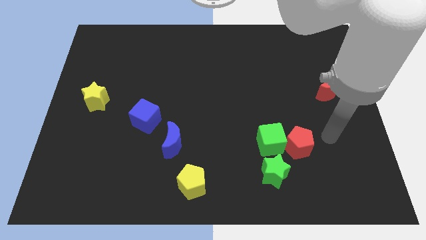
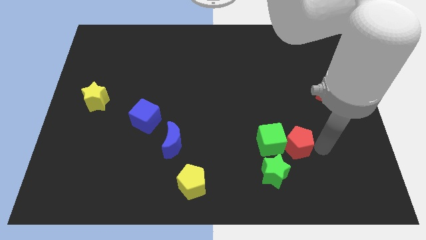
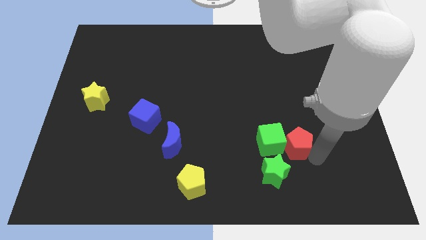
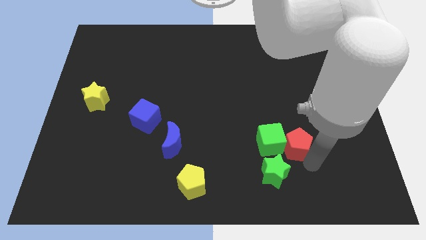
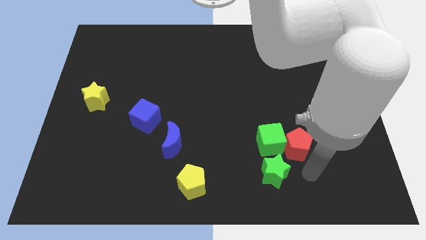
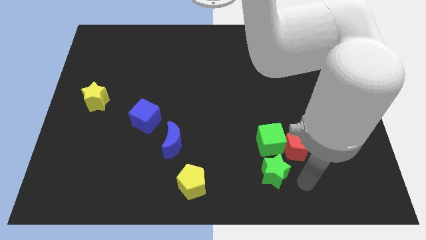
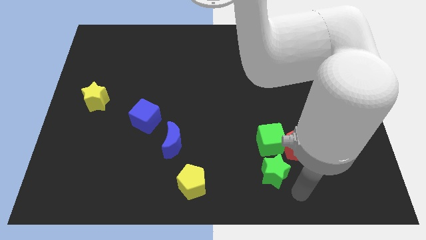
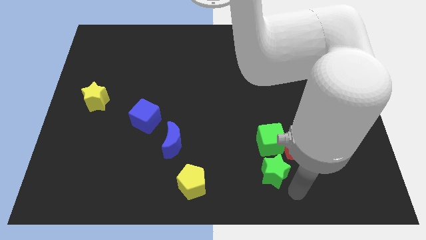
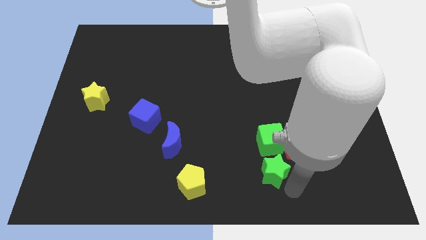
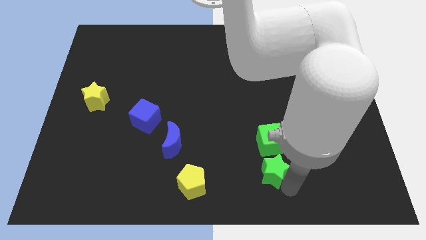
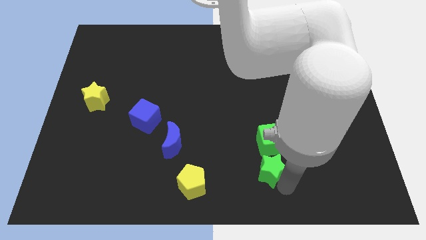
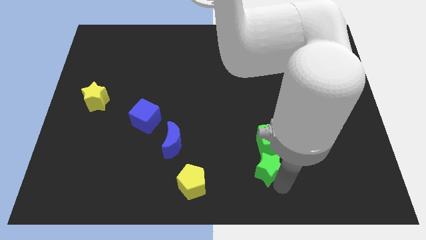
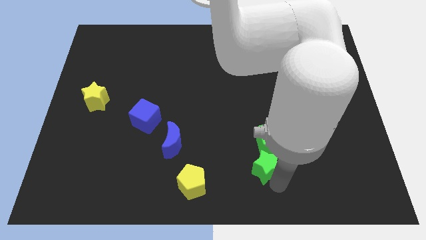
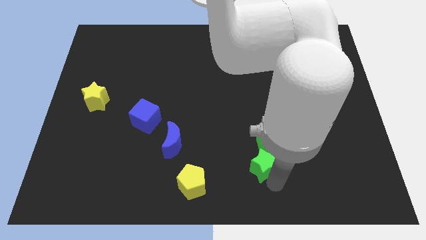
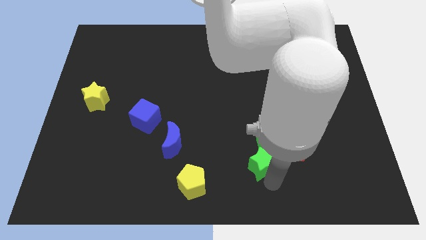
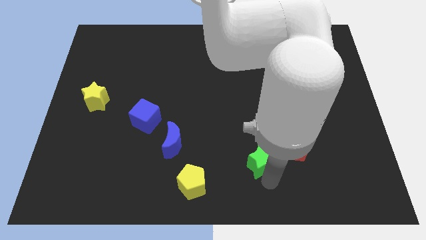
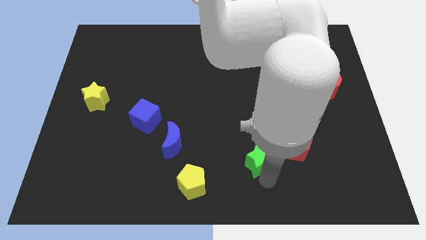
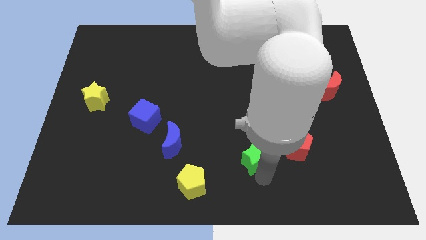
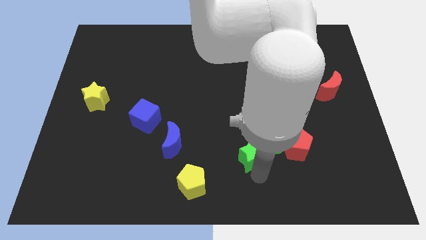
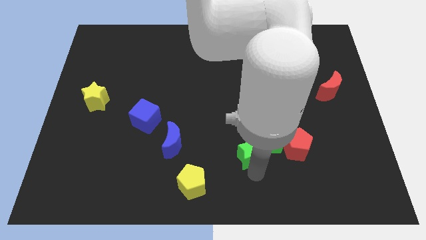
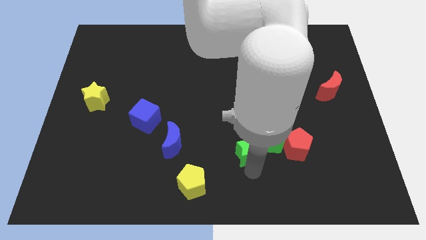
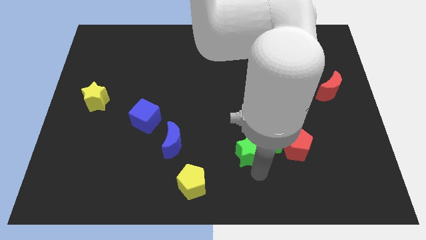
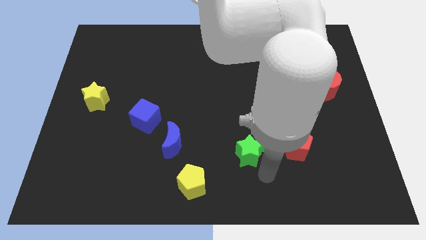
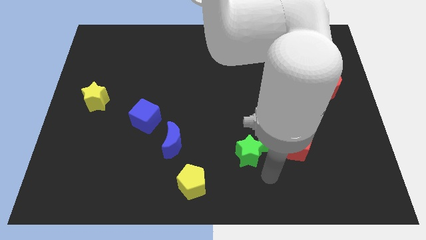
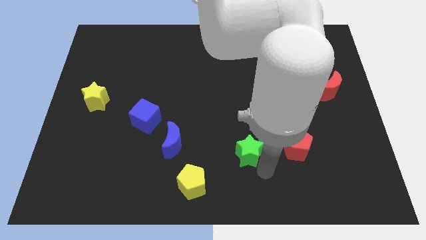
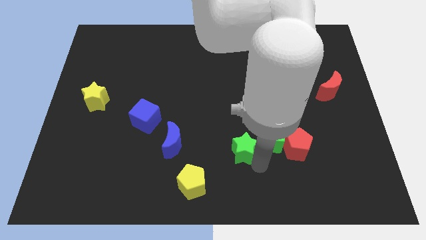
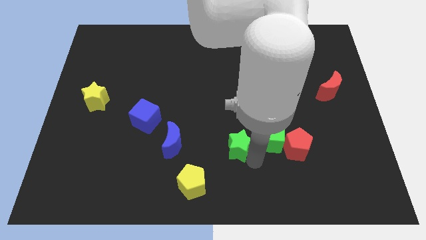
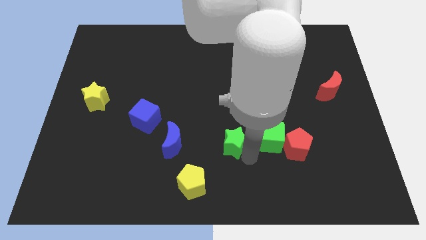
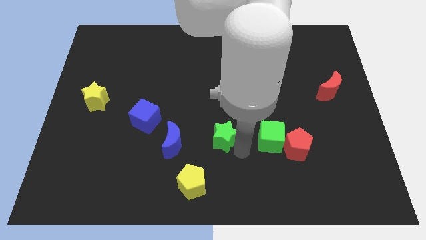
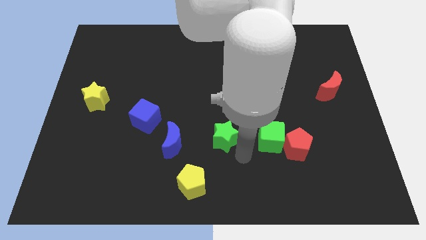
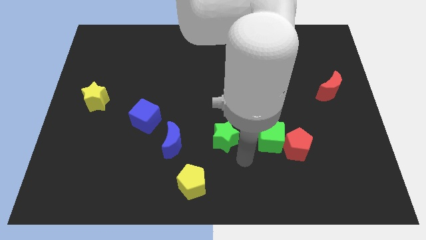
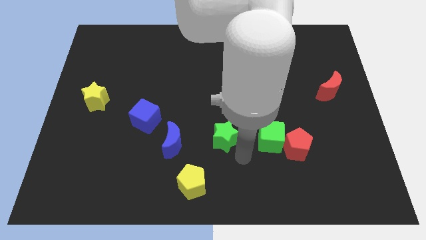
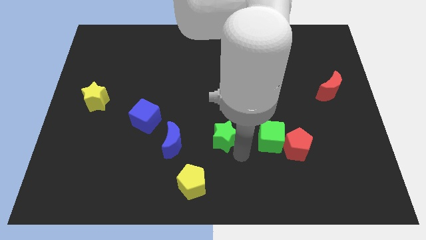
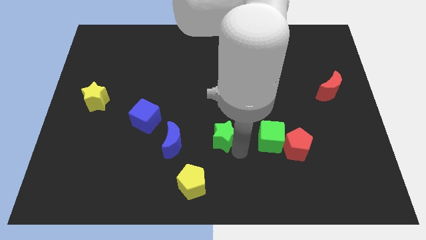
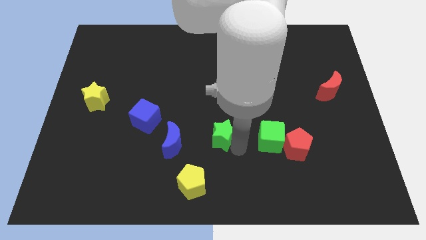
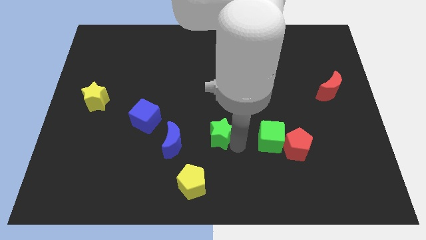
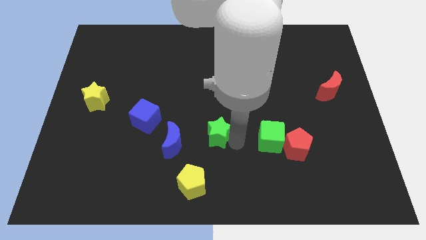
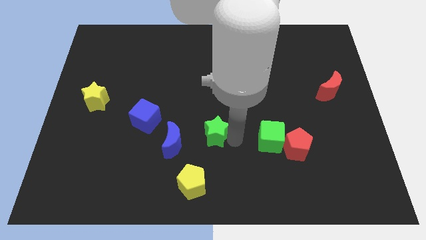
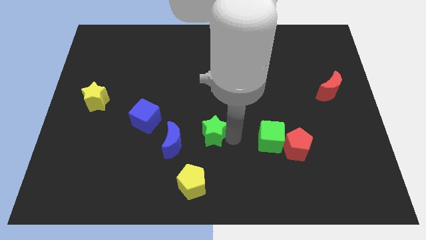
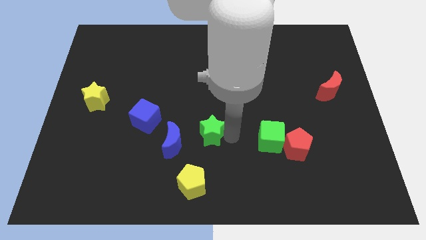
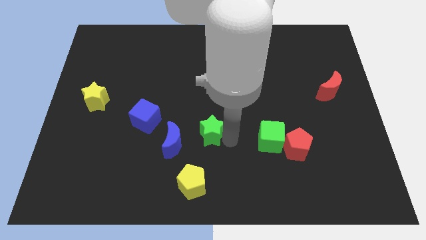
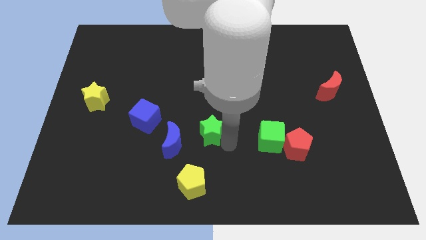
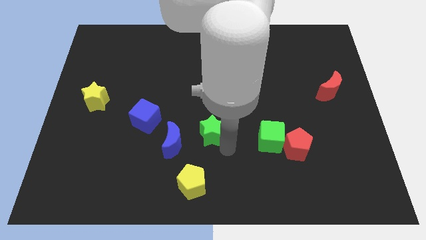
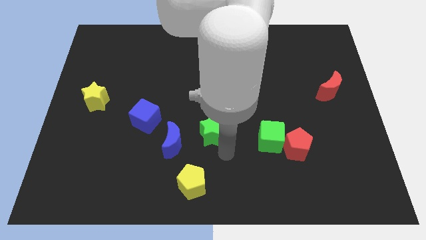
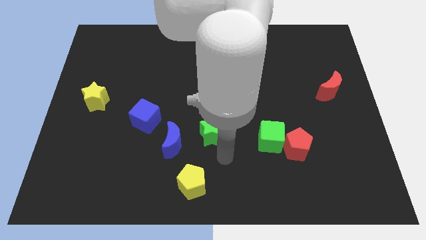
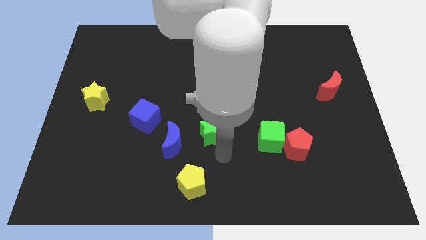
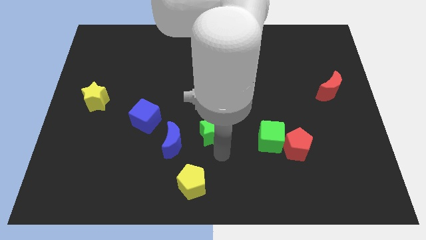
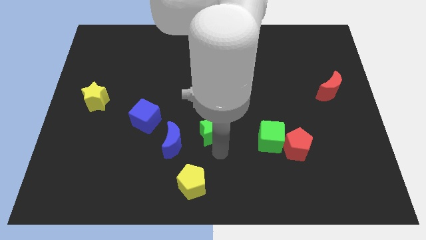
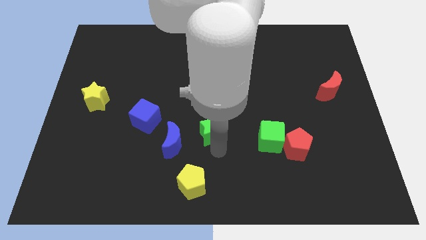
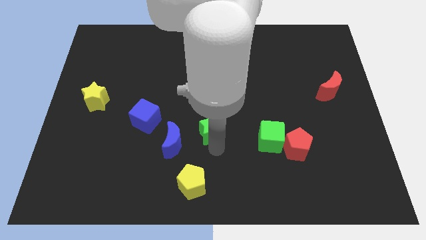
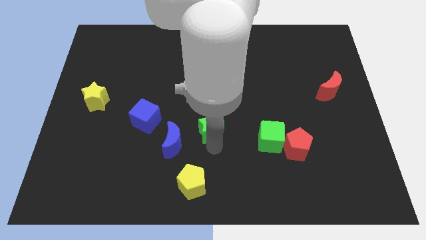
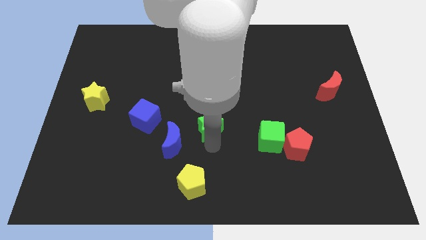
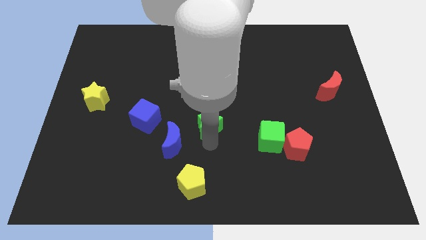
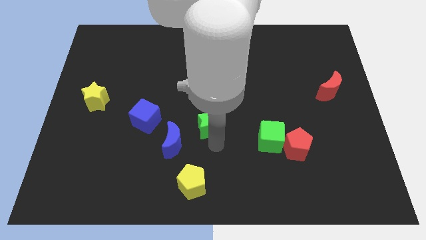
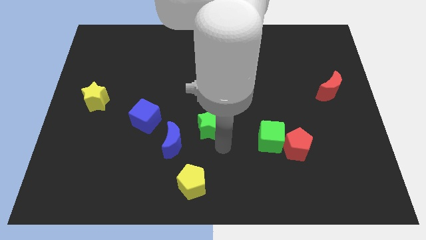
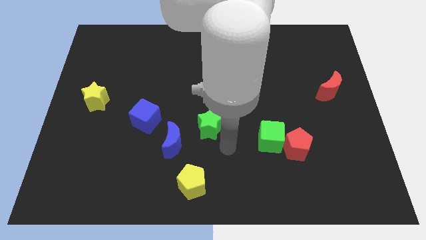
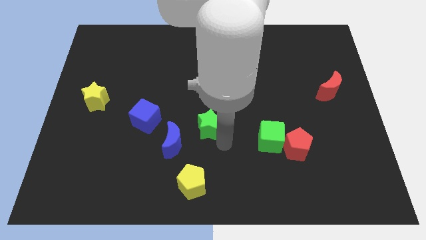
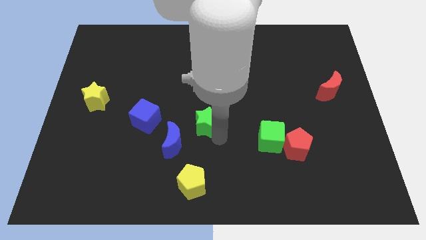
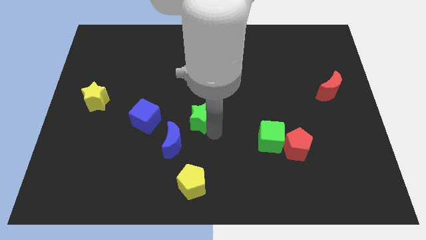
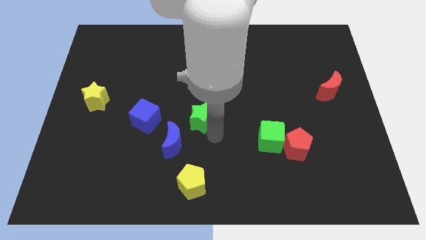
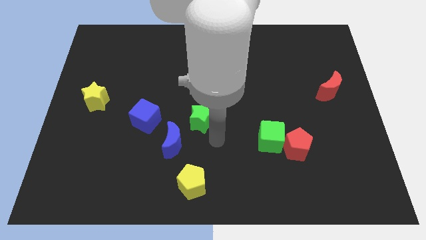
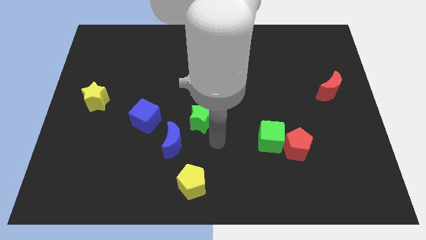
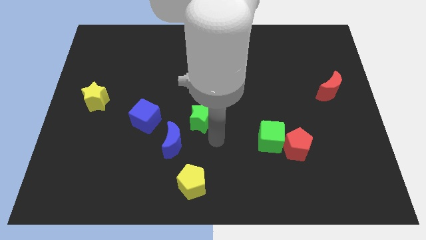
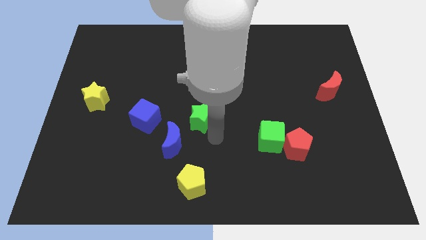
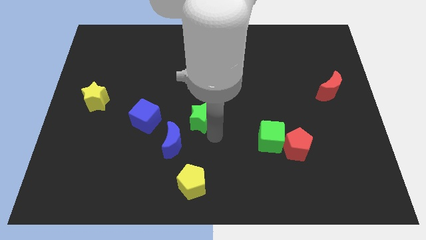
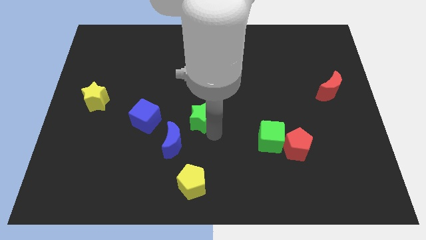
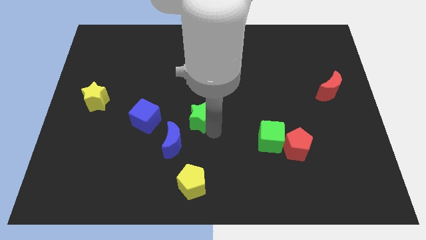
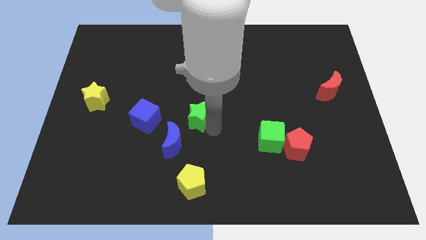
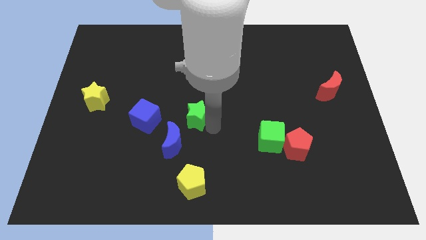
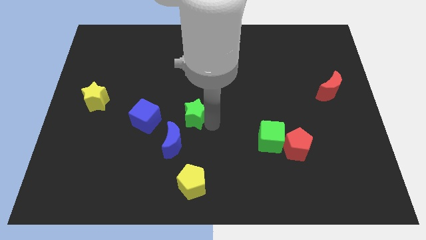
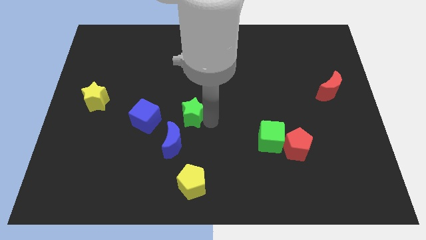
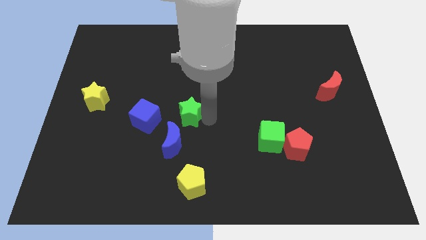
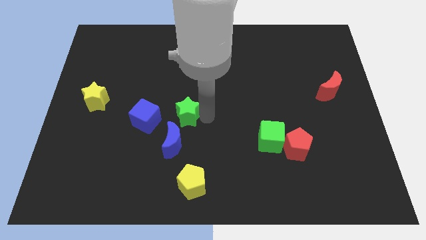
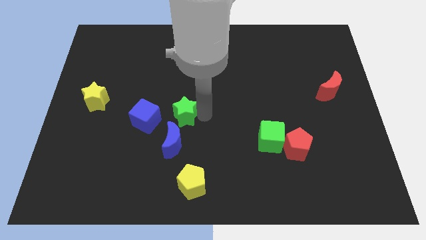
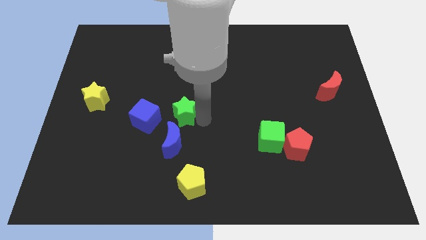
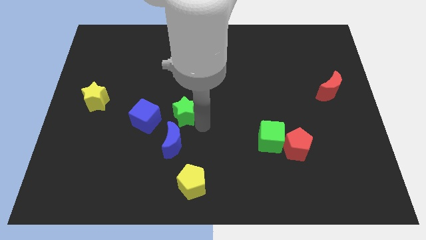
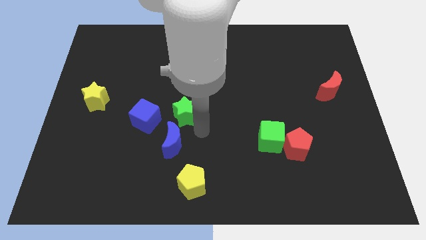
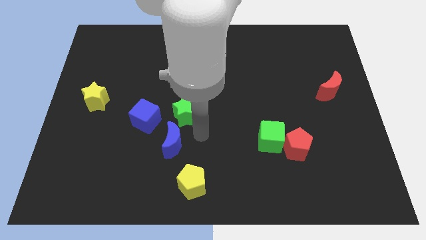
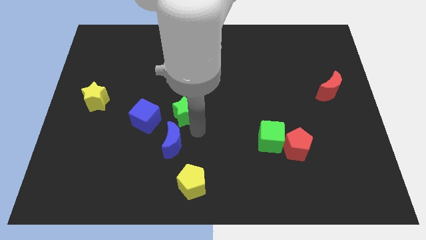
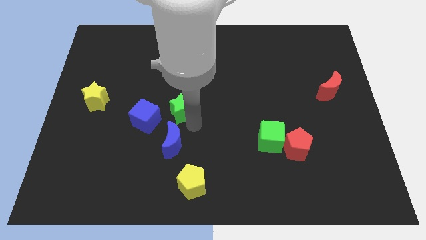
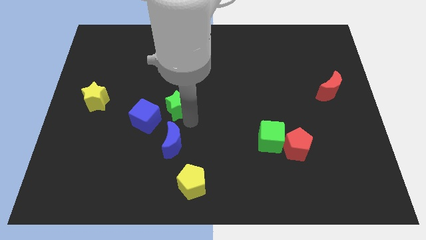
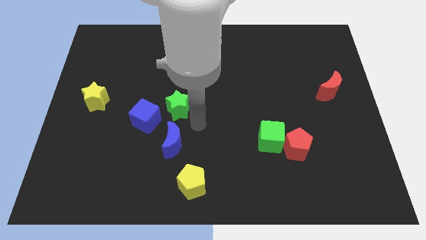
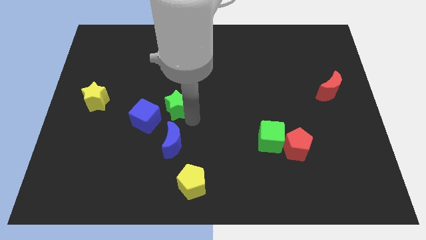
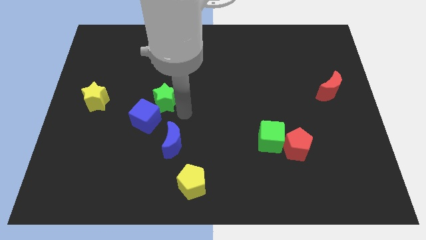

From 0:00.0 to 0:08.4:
push the green star above the blue cube
